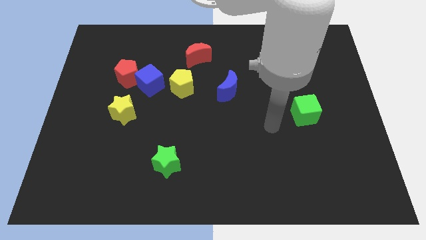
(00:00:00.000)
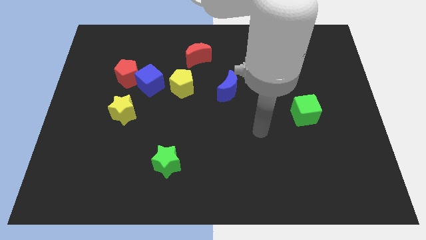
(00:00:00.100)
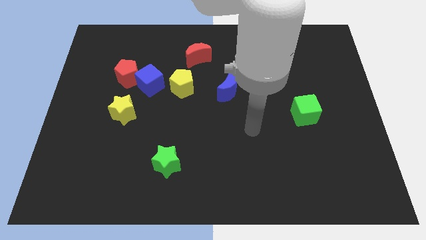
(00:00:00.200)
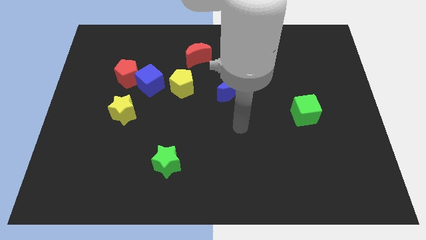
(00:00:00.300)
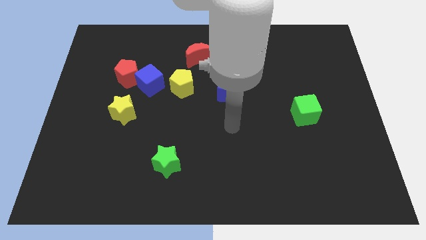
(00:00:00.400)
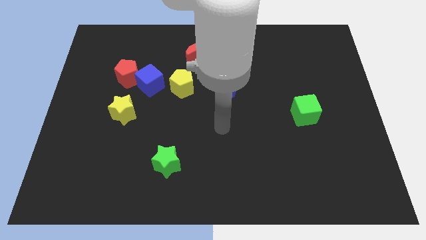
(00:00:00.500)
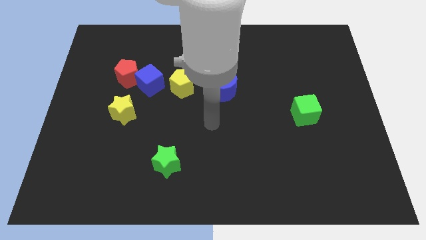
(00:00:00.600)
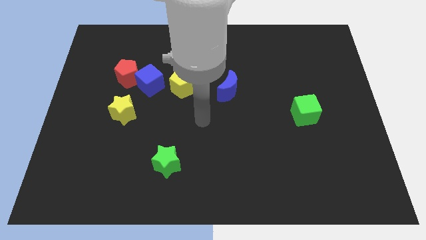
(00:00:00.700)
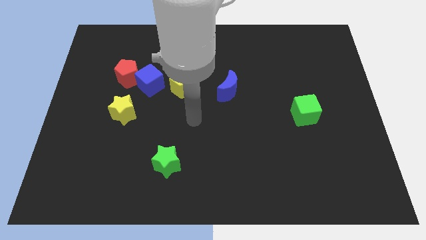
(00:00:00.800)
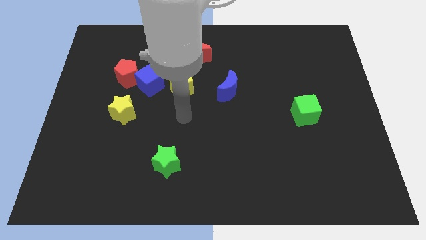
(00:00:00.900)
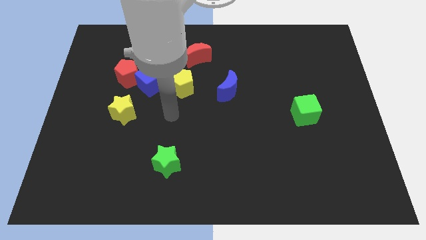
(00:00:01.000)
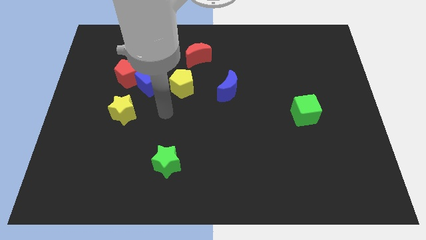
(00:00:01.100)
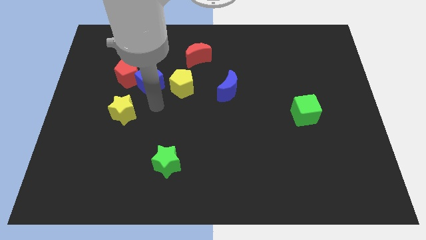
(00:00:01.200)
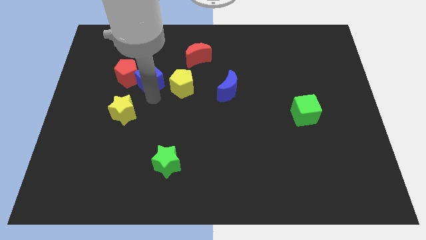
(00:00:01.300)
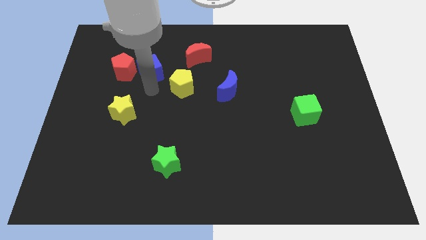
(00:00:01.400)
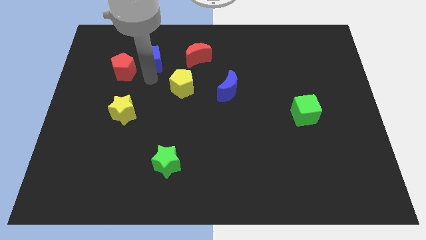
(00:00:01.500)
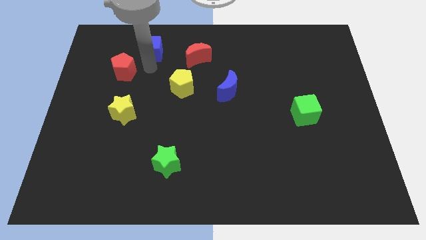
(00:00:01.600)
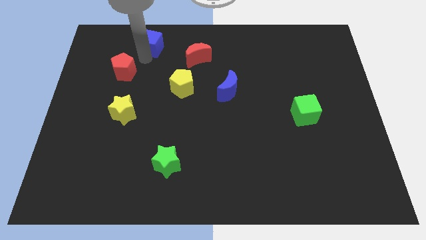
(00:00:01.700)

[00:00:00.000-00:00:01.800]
separate the red pentagon from the blue cube

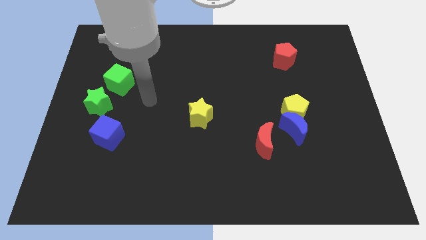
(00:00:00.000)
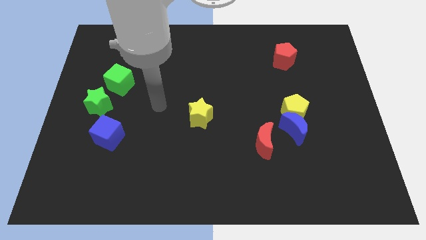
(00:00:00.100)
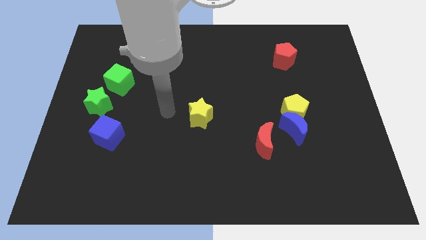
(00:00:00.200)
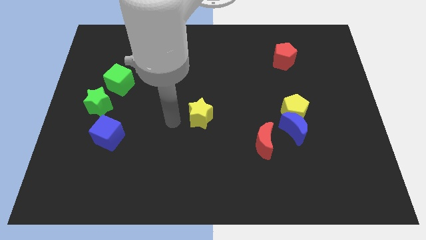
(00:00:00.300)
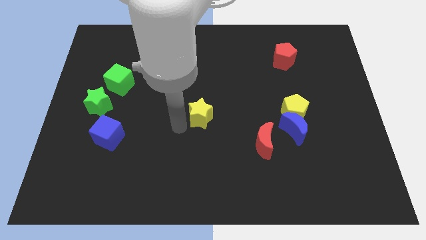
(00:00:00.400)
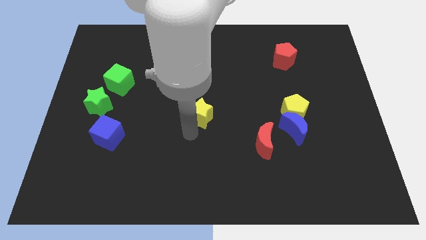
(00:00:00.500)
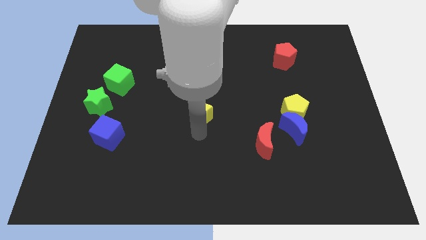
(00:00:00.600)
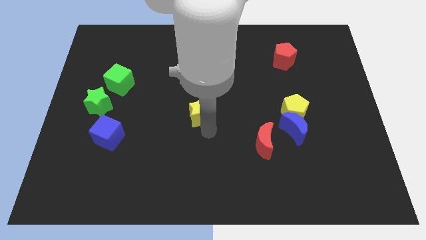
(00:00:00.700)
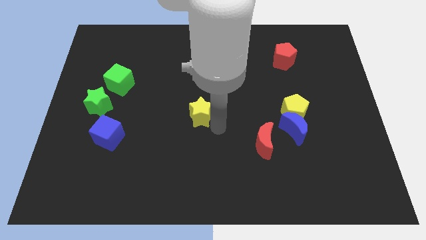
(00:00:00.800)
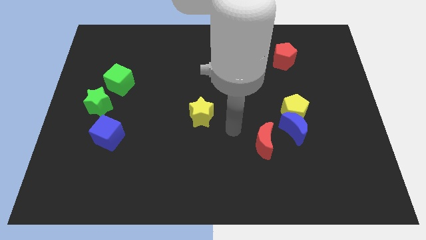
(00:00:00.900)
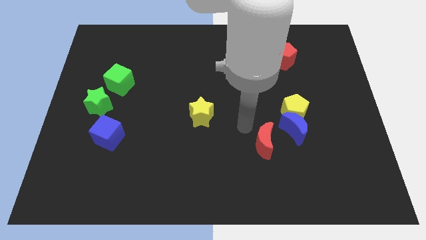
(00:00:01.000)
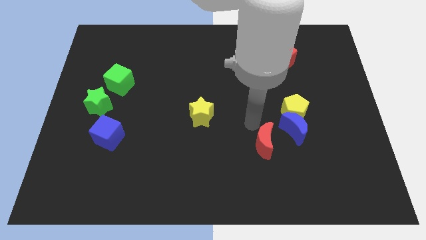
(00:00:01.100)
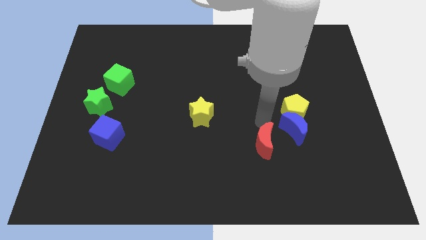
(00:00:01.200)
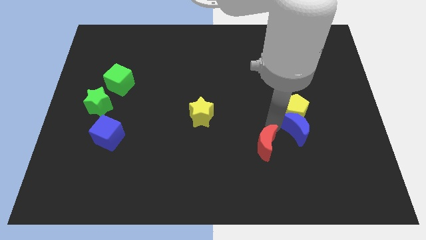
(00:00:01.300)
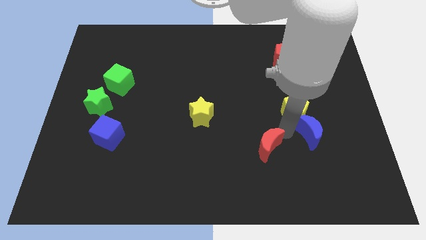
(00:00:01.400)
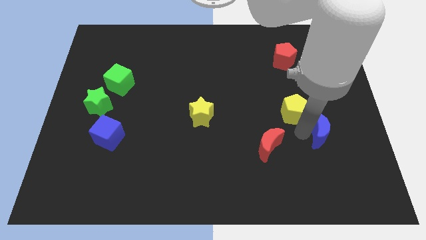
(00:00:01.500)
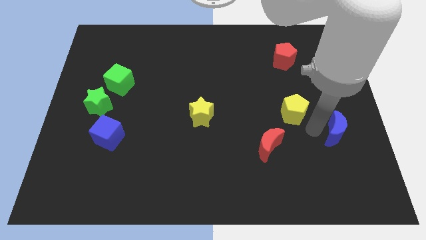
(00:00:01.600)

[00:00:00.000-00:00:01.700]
move the yellow pentagon away from the blue moon

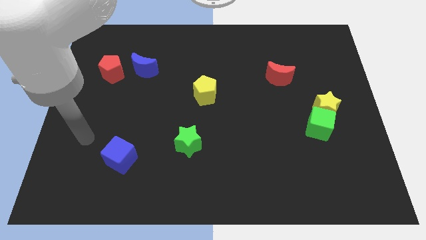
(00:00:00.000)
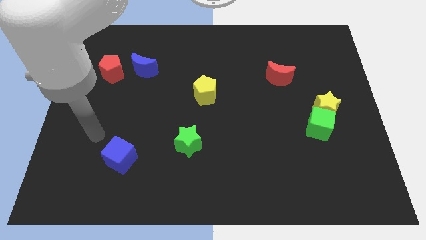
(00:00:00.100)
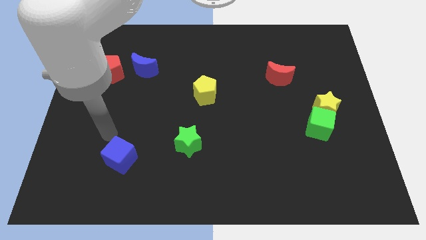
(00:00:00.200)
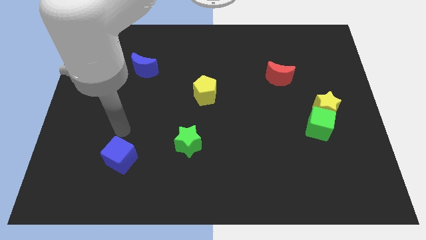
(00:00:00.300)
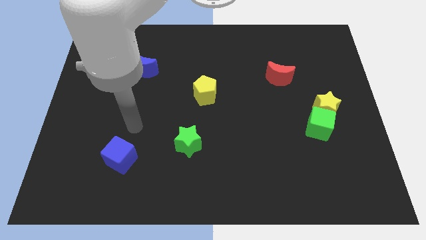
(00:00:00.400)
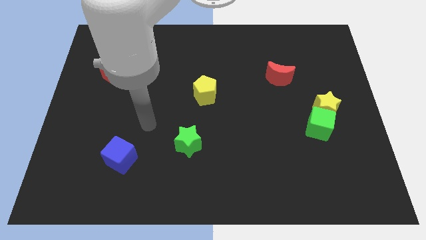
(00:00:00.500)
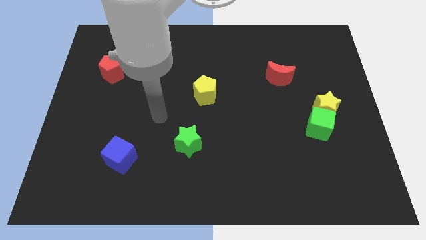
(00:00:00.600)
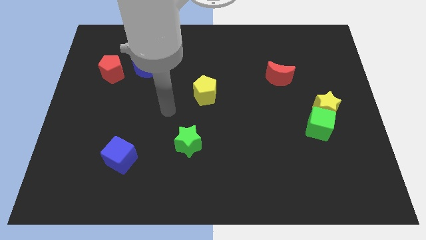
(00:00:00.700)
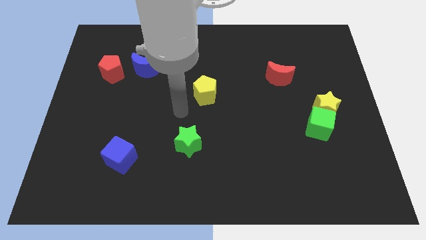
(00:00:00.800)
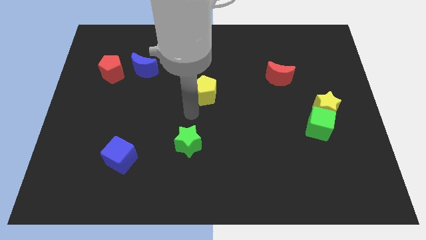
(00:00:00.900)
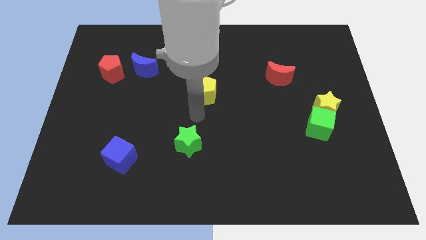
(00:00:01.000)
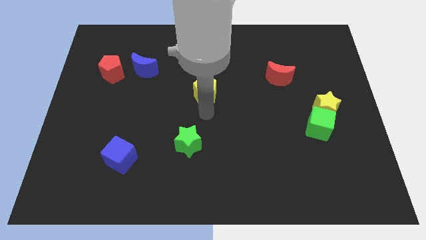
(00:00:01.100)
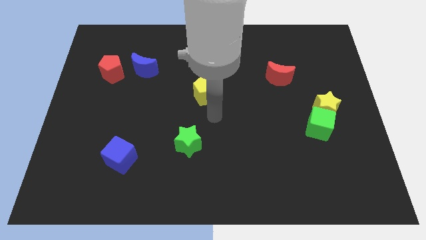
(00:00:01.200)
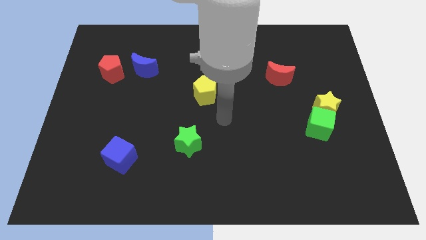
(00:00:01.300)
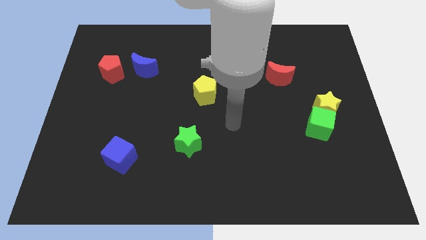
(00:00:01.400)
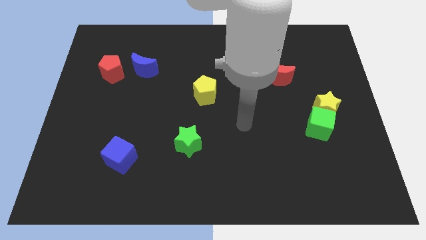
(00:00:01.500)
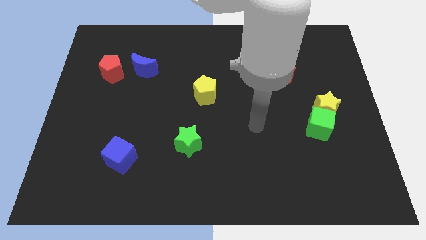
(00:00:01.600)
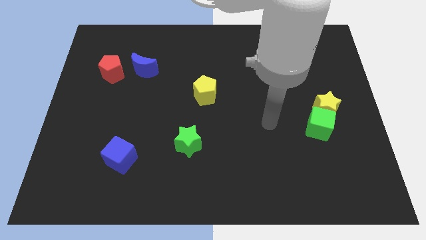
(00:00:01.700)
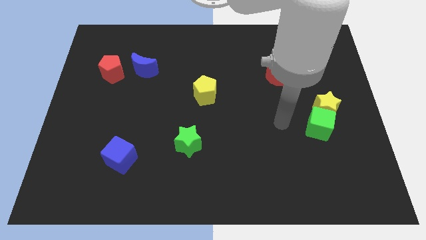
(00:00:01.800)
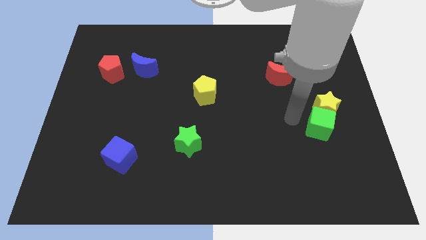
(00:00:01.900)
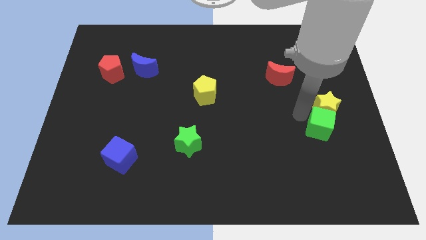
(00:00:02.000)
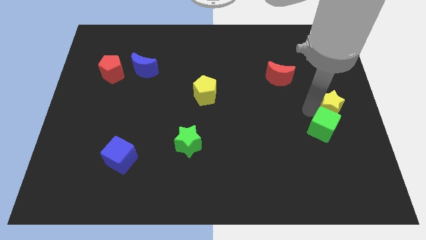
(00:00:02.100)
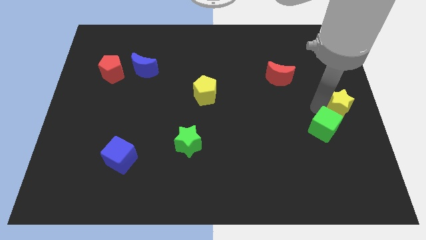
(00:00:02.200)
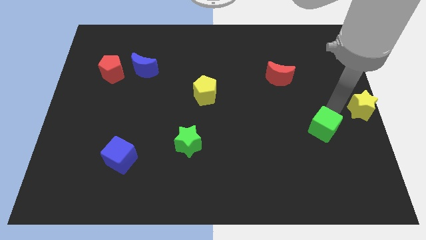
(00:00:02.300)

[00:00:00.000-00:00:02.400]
pull the green cube apart from the yellow star

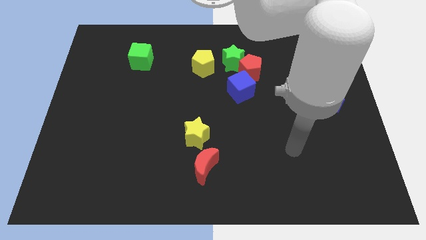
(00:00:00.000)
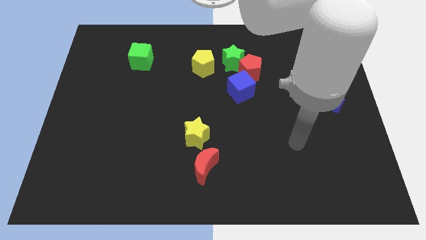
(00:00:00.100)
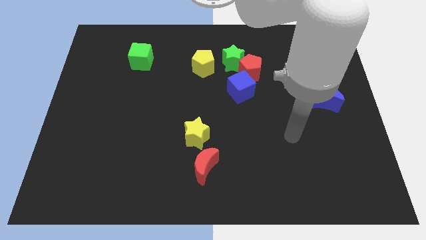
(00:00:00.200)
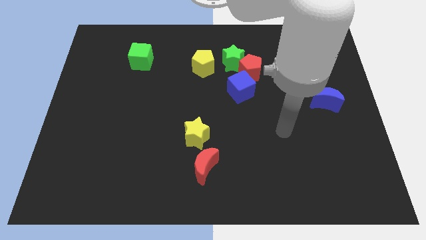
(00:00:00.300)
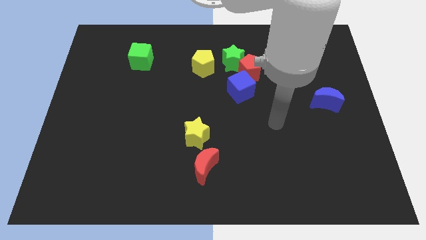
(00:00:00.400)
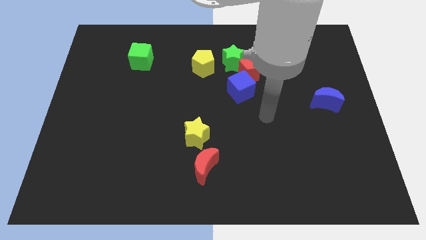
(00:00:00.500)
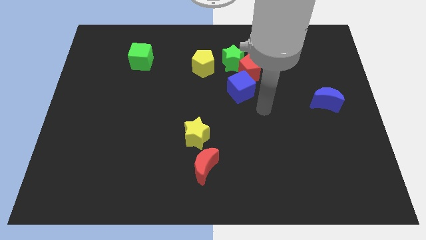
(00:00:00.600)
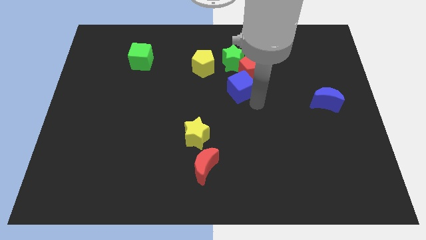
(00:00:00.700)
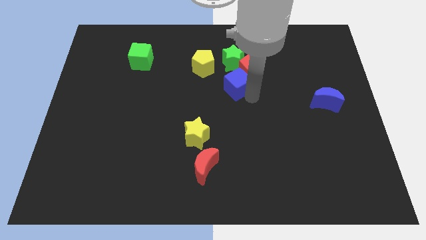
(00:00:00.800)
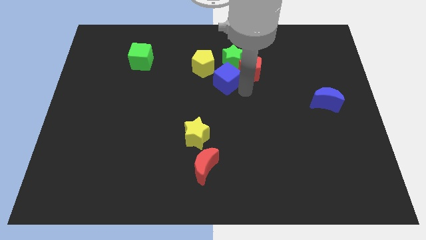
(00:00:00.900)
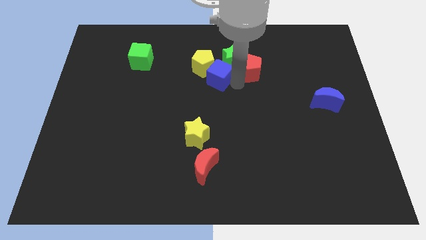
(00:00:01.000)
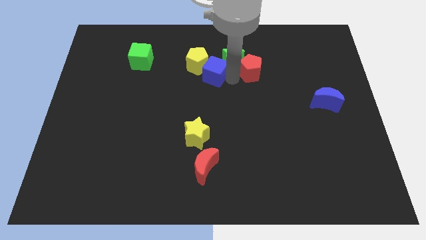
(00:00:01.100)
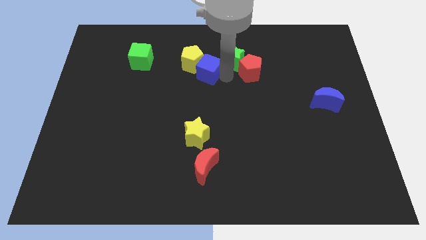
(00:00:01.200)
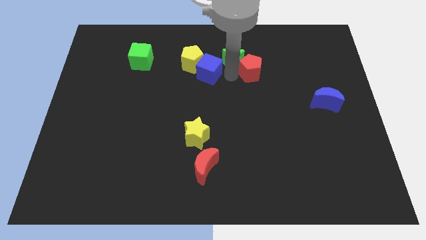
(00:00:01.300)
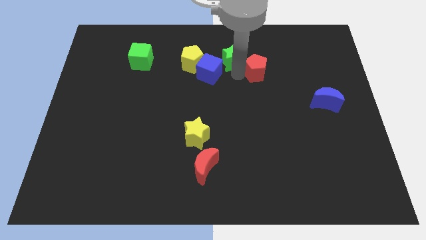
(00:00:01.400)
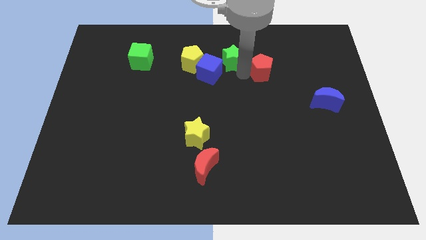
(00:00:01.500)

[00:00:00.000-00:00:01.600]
move the red pentagon away from the green star and blue cube

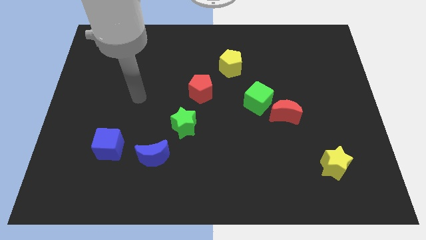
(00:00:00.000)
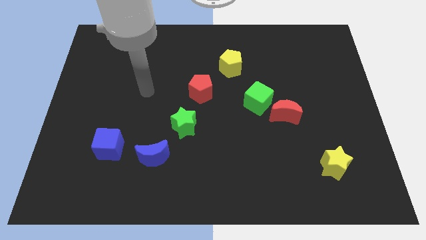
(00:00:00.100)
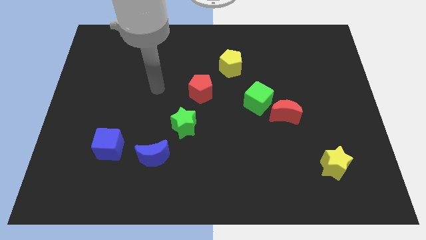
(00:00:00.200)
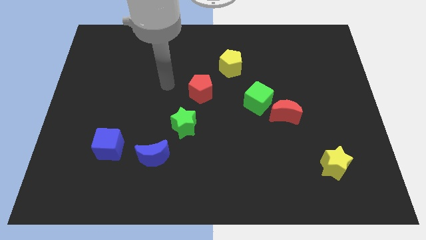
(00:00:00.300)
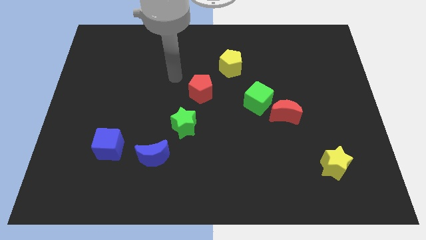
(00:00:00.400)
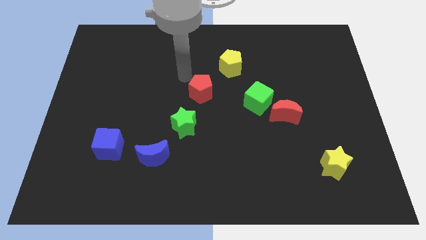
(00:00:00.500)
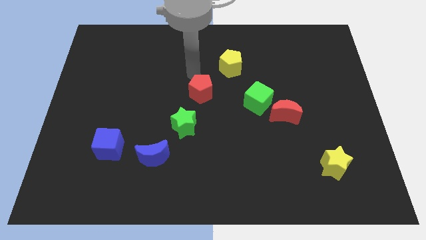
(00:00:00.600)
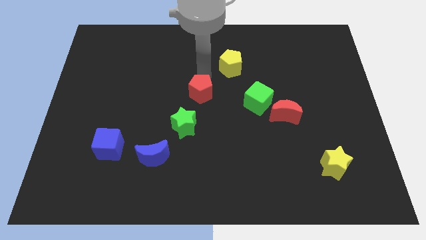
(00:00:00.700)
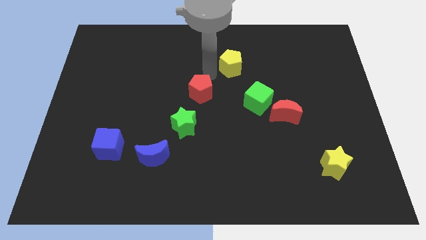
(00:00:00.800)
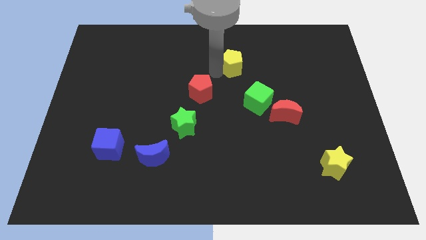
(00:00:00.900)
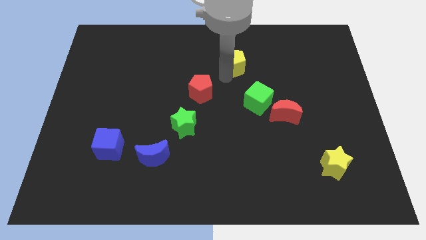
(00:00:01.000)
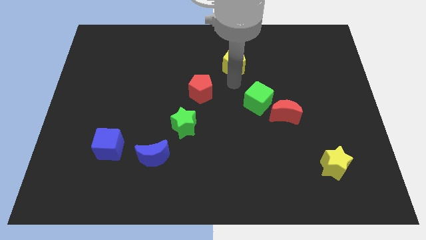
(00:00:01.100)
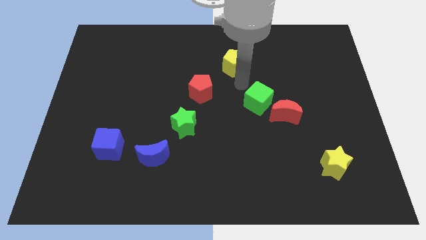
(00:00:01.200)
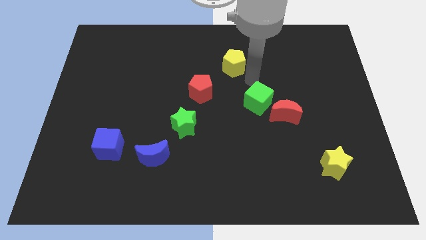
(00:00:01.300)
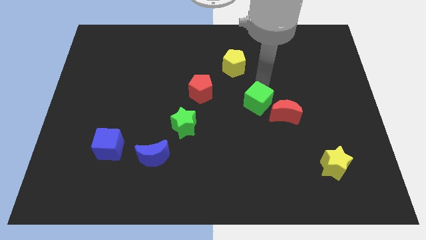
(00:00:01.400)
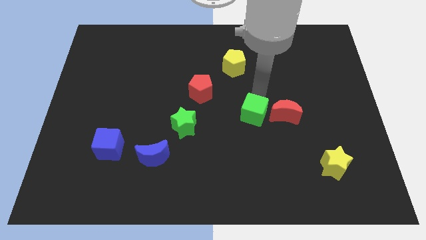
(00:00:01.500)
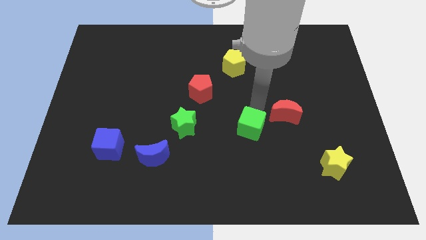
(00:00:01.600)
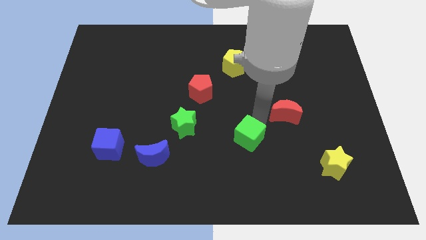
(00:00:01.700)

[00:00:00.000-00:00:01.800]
move the red moon away from the green cube
